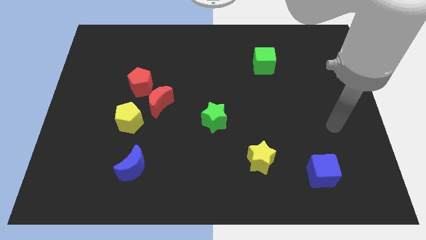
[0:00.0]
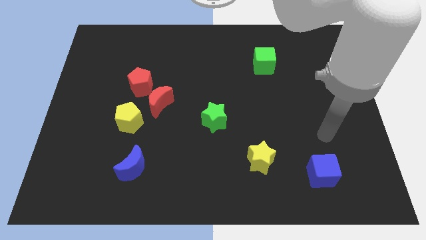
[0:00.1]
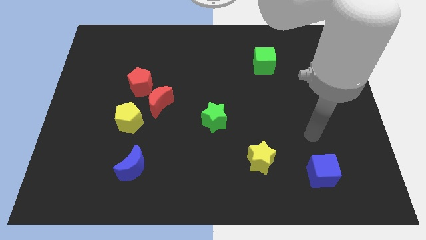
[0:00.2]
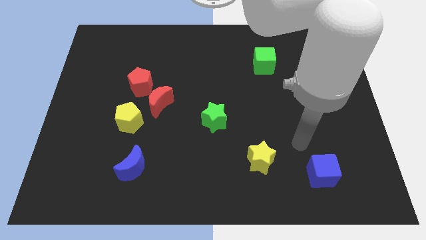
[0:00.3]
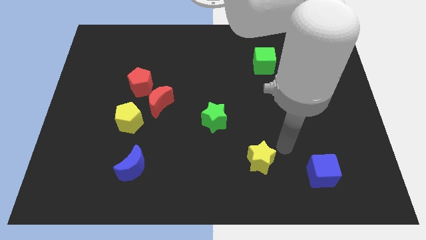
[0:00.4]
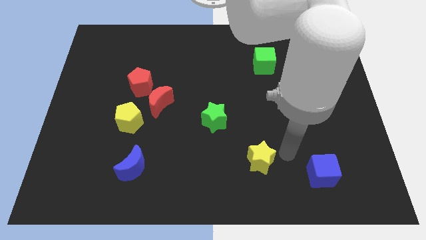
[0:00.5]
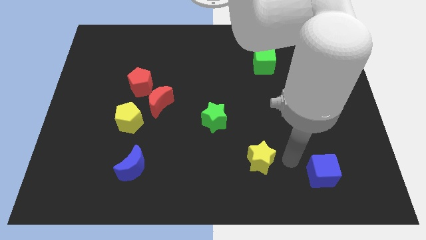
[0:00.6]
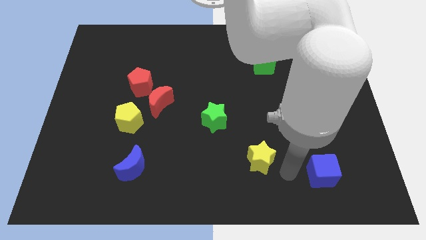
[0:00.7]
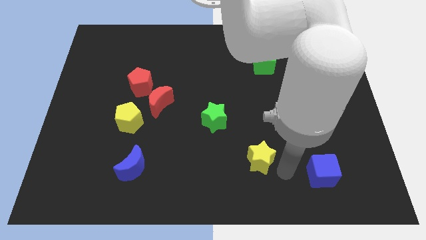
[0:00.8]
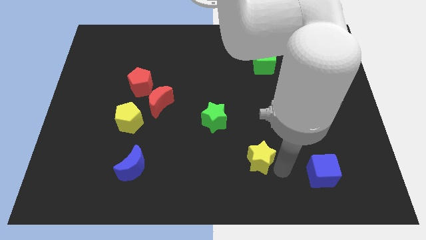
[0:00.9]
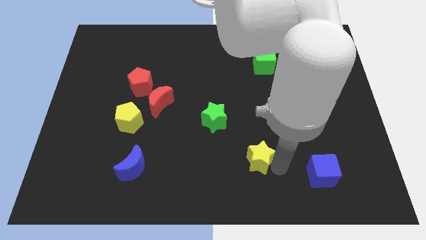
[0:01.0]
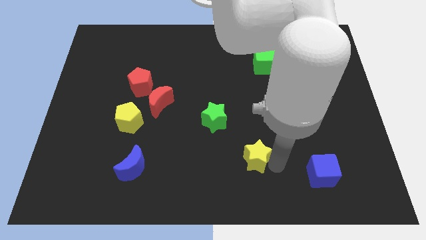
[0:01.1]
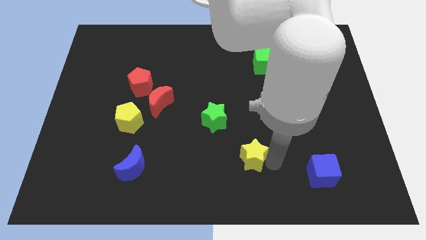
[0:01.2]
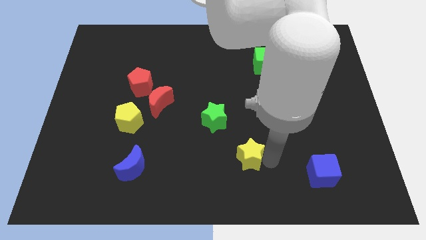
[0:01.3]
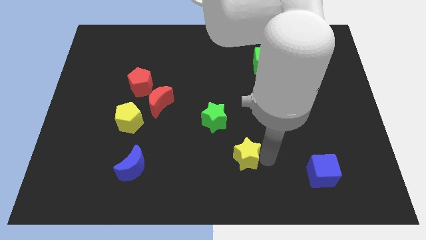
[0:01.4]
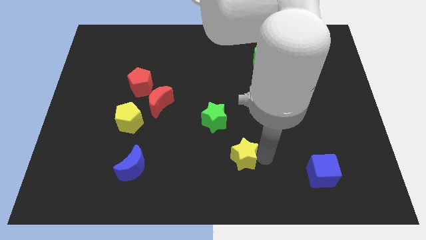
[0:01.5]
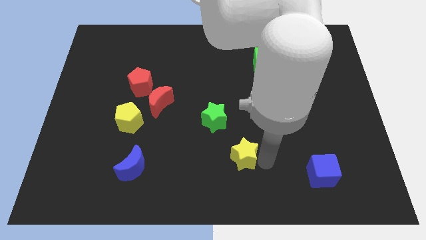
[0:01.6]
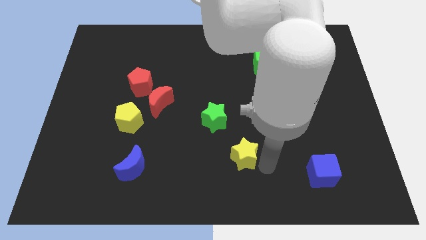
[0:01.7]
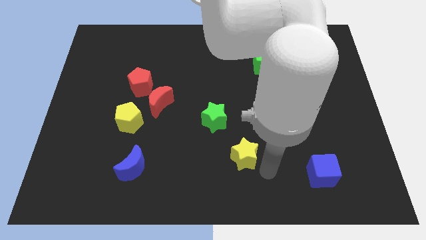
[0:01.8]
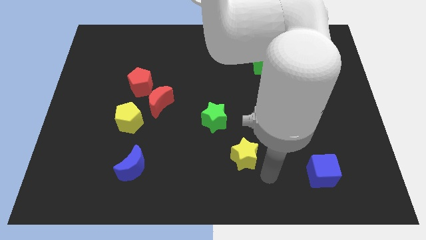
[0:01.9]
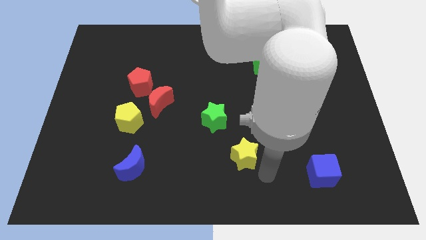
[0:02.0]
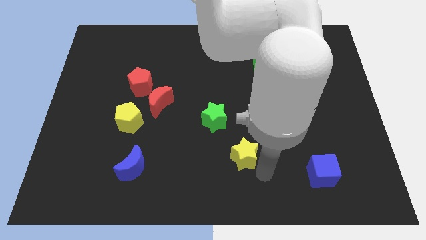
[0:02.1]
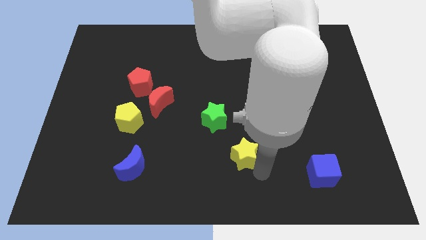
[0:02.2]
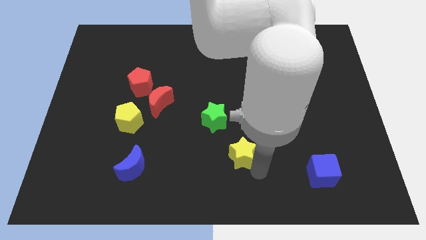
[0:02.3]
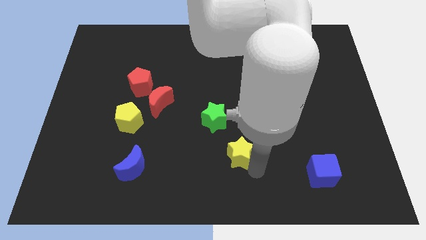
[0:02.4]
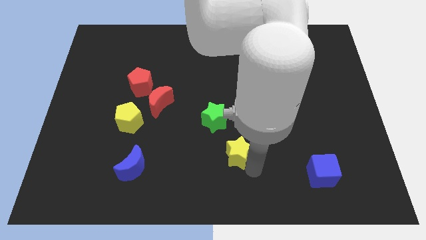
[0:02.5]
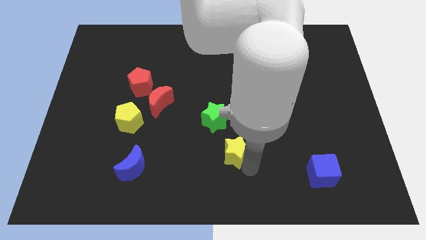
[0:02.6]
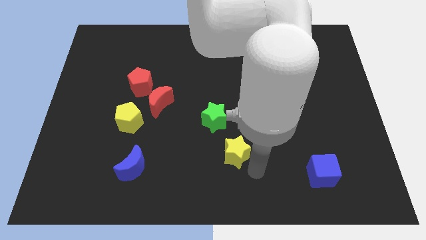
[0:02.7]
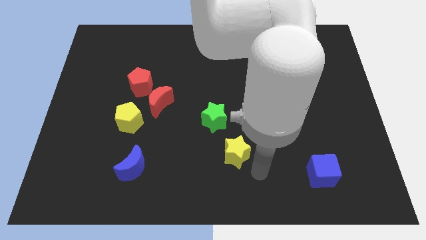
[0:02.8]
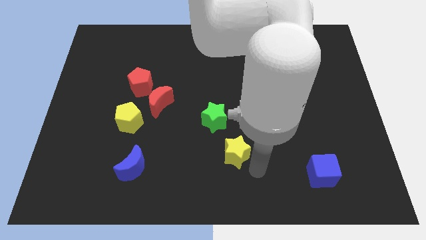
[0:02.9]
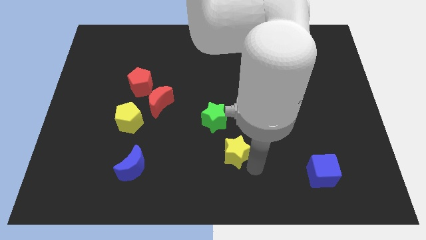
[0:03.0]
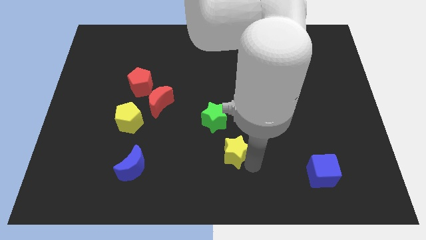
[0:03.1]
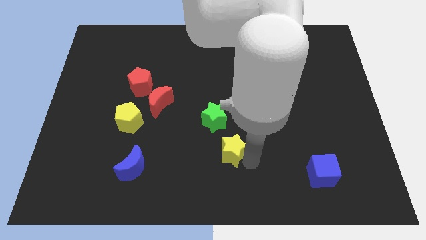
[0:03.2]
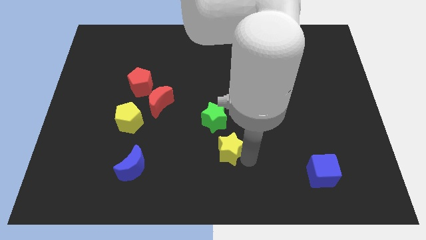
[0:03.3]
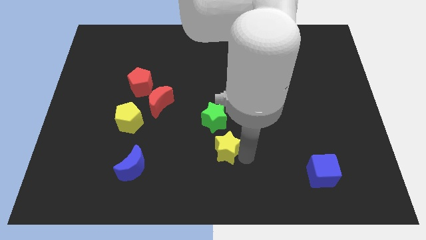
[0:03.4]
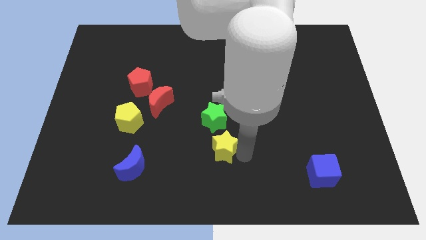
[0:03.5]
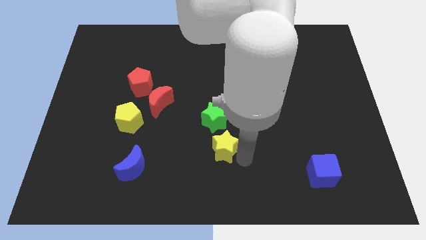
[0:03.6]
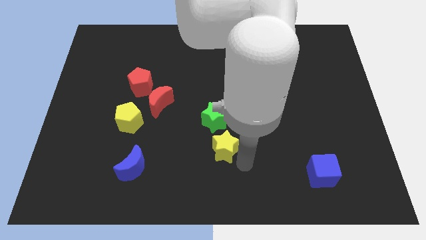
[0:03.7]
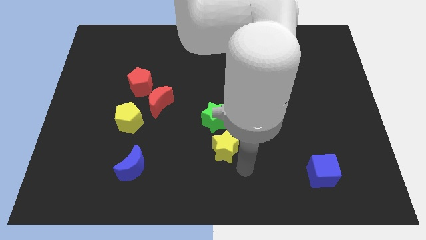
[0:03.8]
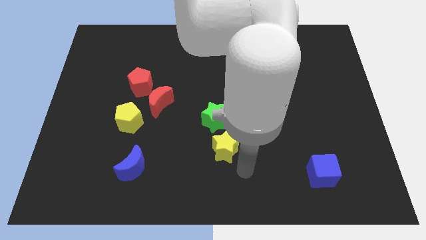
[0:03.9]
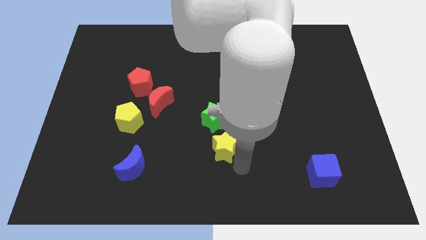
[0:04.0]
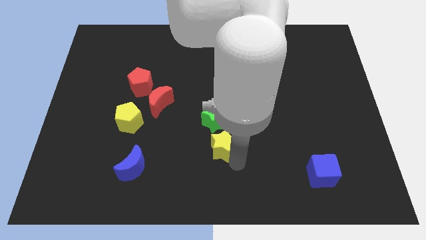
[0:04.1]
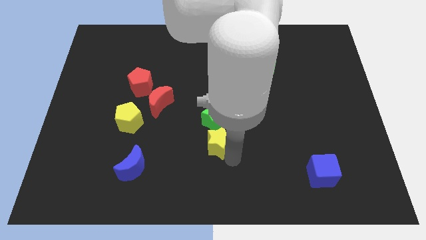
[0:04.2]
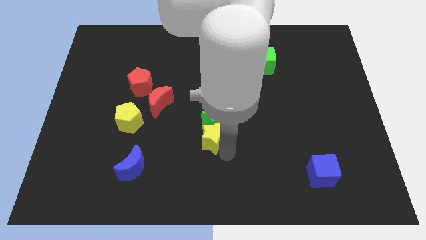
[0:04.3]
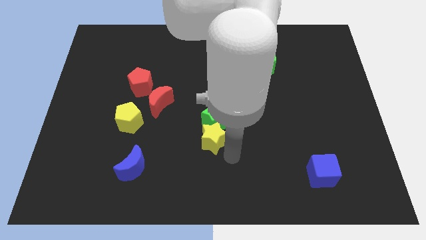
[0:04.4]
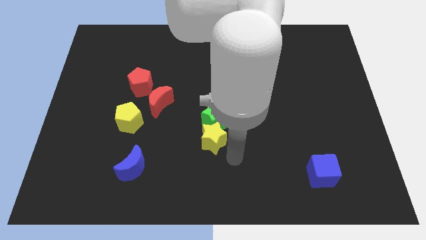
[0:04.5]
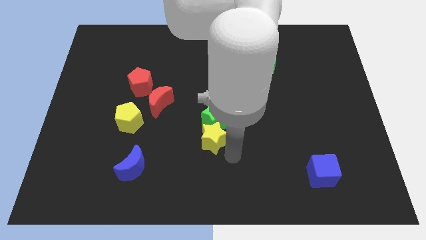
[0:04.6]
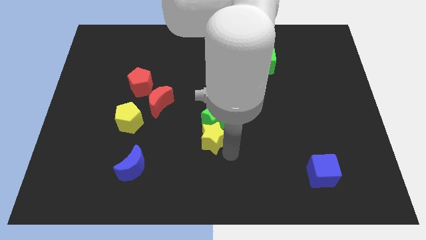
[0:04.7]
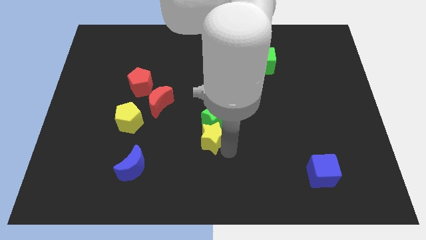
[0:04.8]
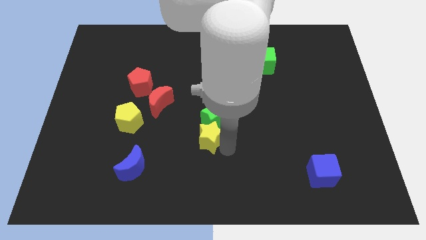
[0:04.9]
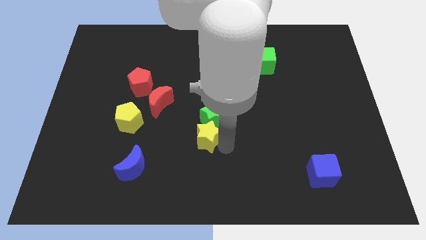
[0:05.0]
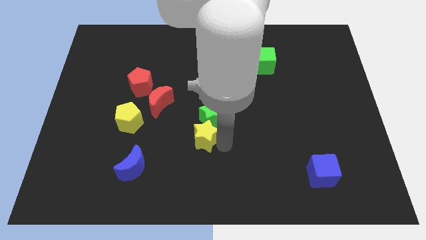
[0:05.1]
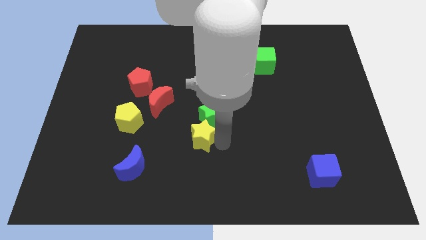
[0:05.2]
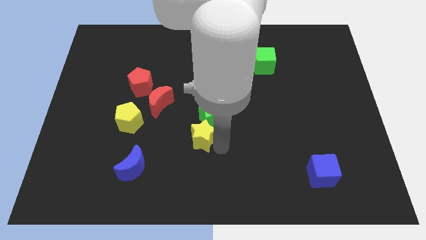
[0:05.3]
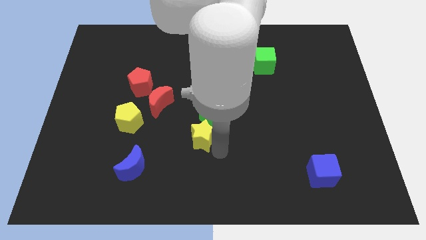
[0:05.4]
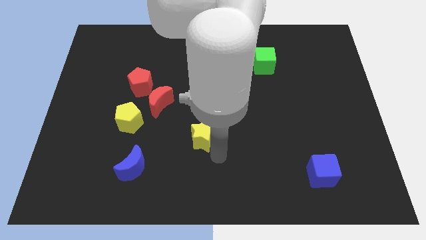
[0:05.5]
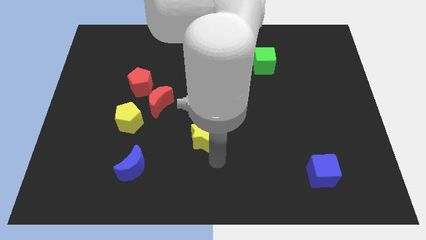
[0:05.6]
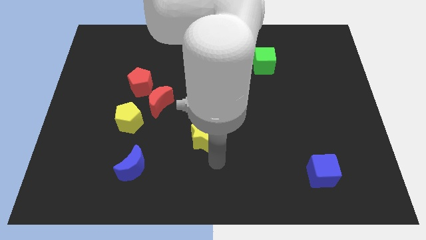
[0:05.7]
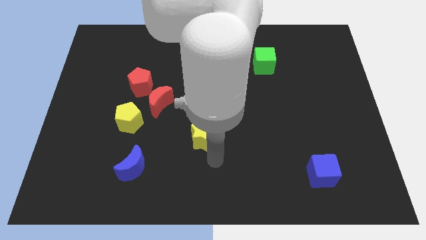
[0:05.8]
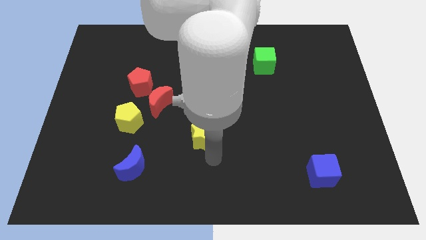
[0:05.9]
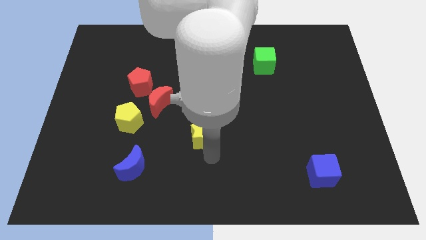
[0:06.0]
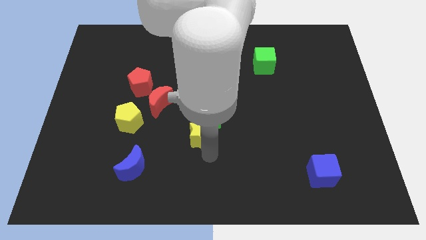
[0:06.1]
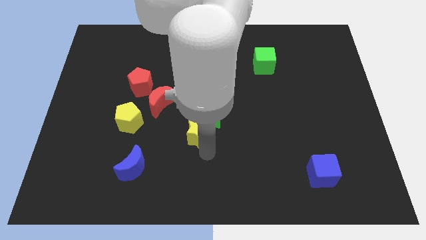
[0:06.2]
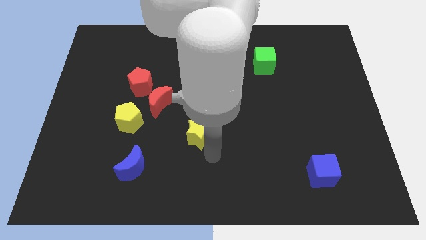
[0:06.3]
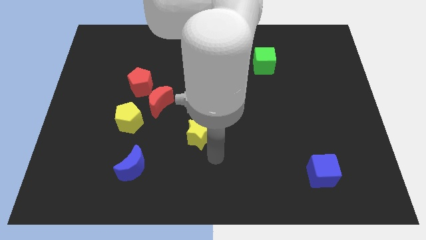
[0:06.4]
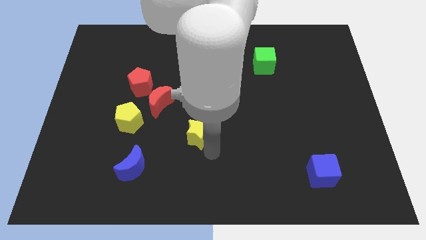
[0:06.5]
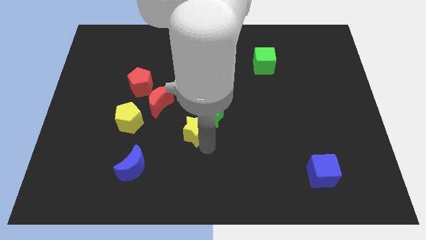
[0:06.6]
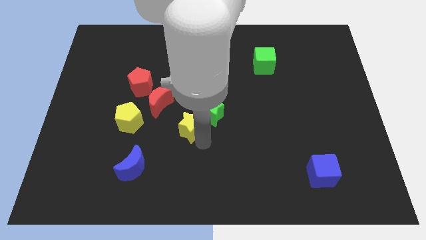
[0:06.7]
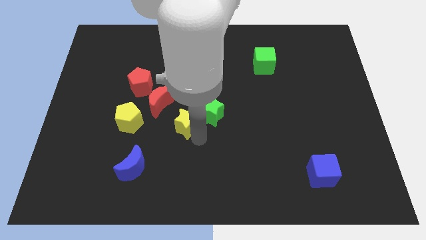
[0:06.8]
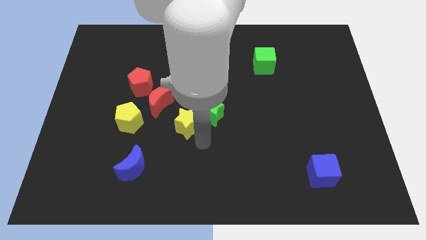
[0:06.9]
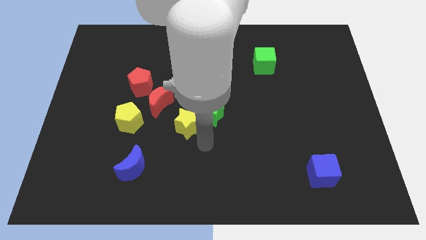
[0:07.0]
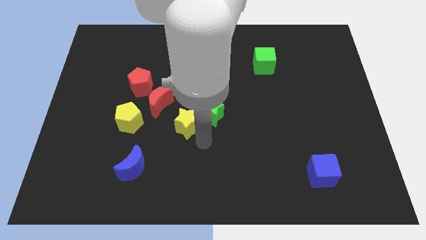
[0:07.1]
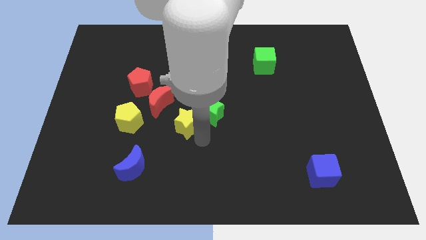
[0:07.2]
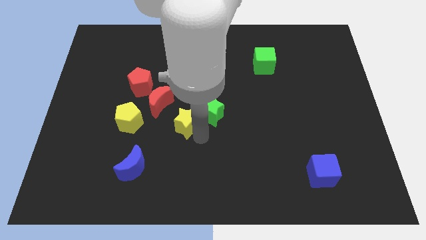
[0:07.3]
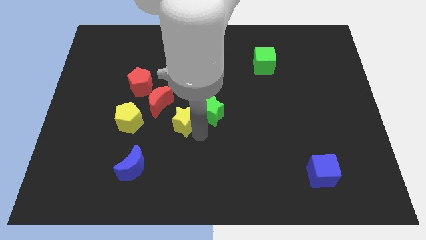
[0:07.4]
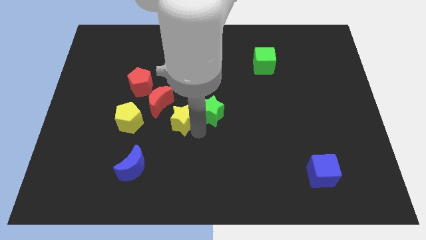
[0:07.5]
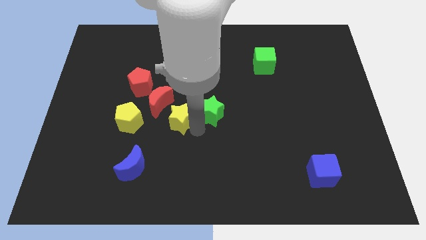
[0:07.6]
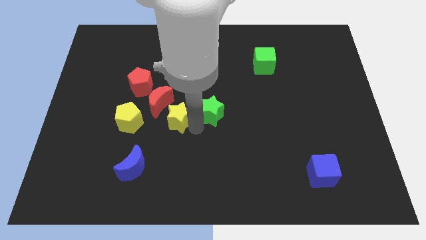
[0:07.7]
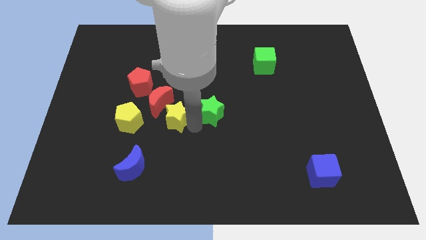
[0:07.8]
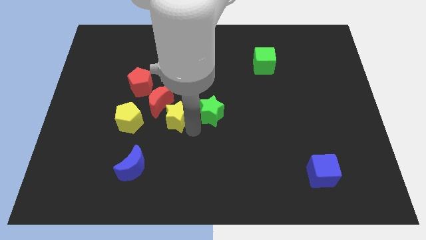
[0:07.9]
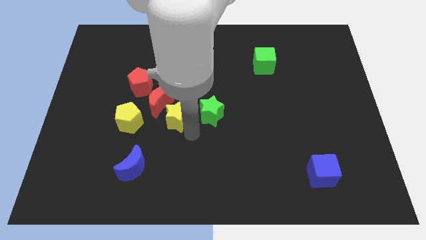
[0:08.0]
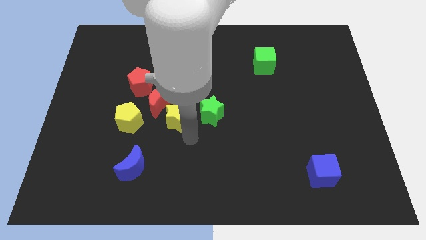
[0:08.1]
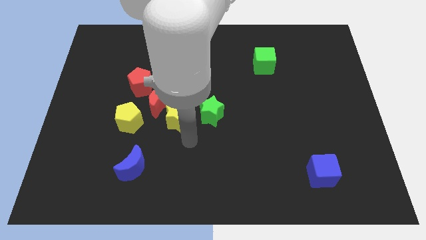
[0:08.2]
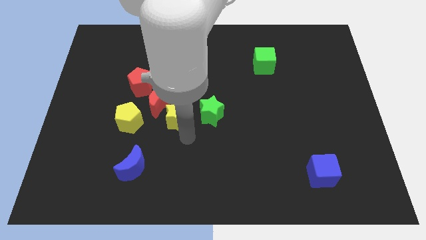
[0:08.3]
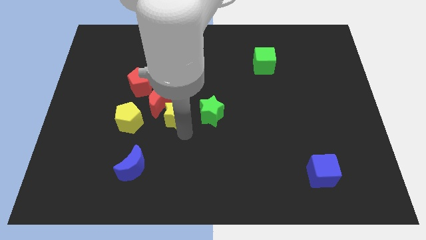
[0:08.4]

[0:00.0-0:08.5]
move the yellow star next to the red moon
